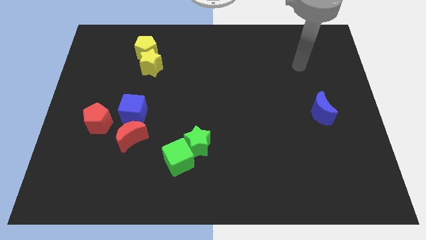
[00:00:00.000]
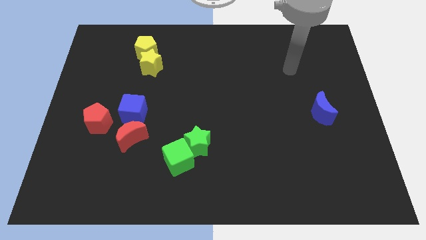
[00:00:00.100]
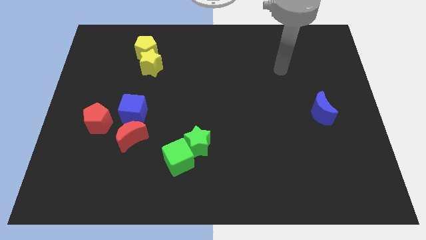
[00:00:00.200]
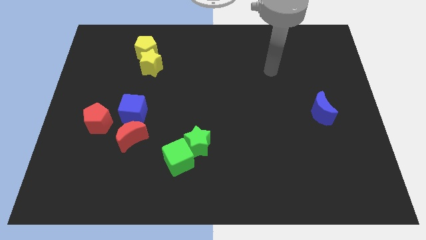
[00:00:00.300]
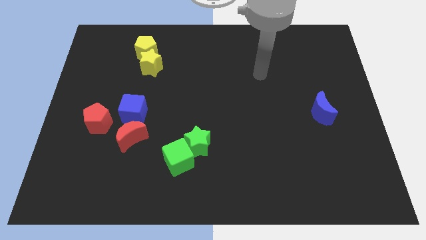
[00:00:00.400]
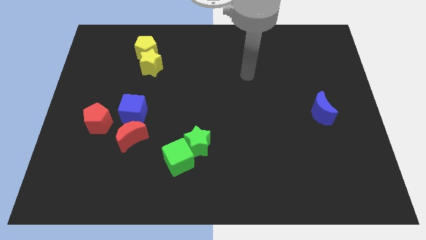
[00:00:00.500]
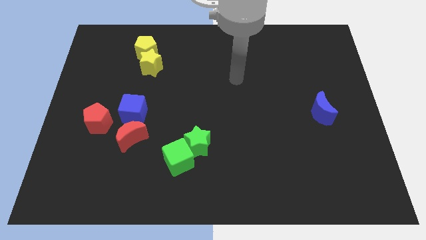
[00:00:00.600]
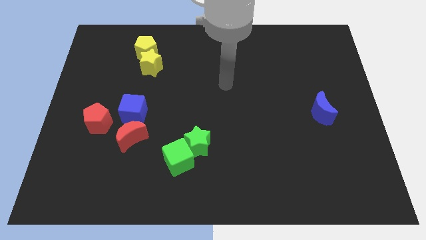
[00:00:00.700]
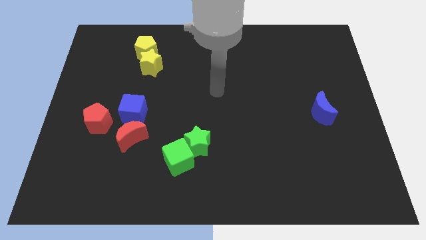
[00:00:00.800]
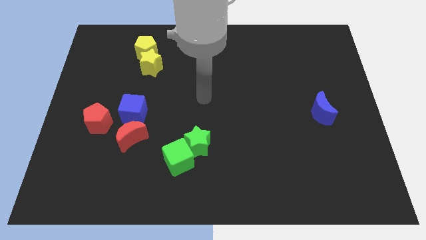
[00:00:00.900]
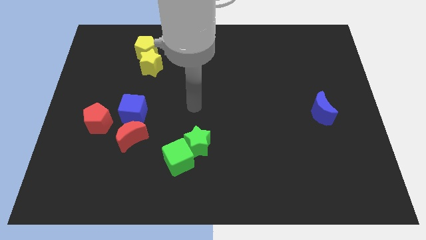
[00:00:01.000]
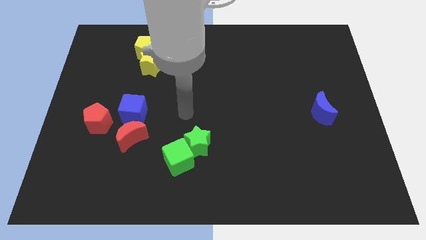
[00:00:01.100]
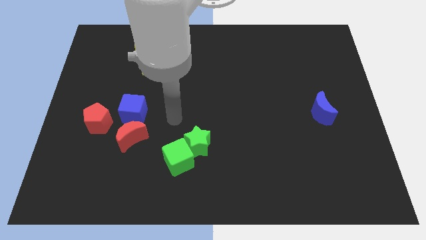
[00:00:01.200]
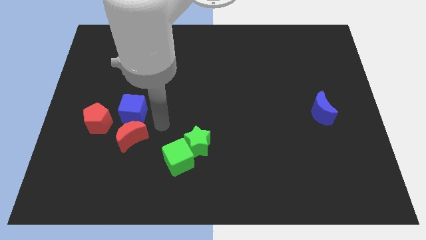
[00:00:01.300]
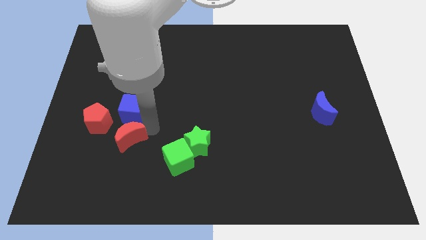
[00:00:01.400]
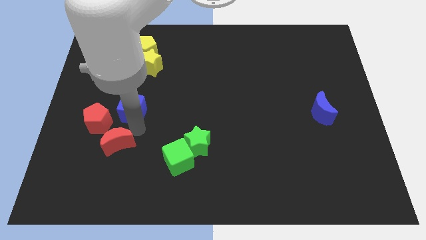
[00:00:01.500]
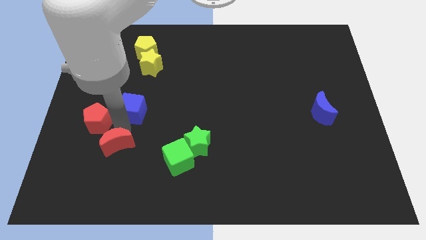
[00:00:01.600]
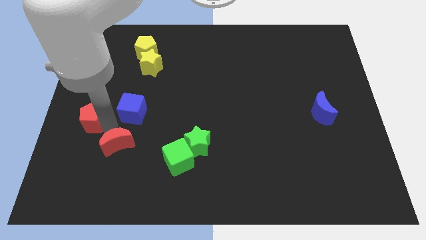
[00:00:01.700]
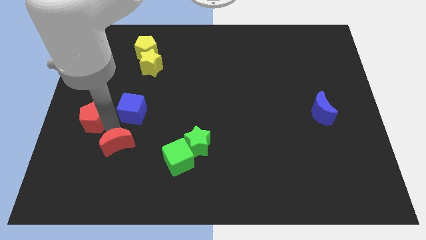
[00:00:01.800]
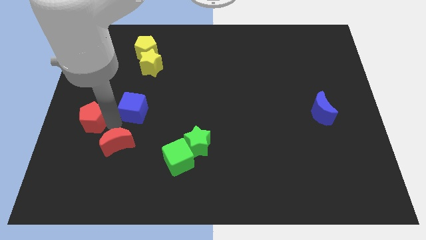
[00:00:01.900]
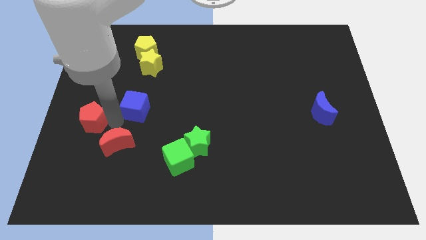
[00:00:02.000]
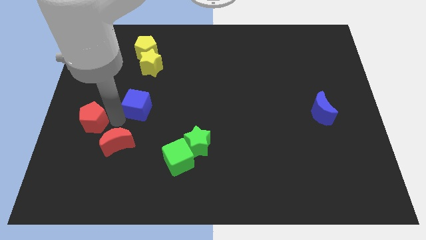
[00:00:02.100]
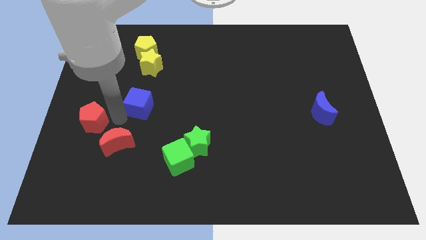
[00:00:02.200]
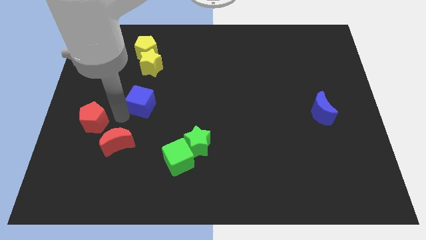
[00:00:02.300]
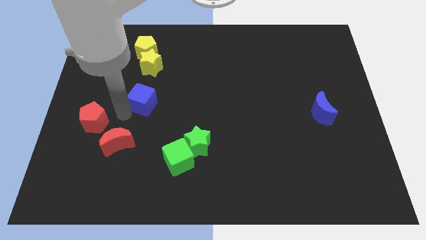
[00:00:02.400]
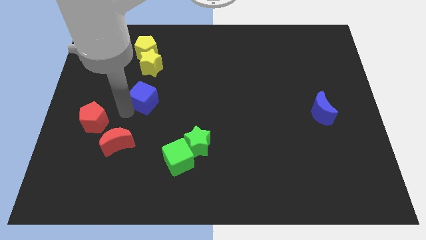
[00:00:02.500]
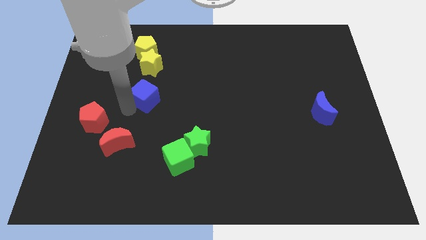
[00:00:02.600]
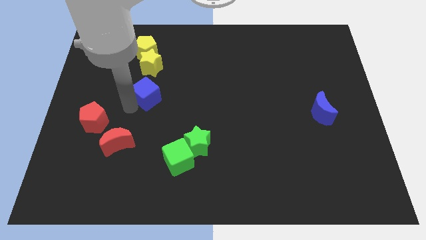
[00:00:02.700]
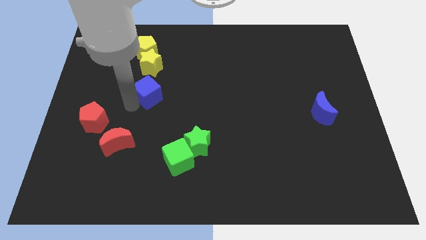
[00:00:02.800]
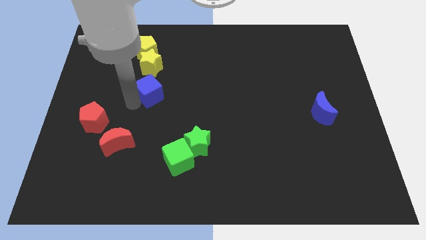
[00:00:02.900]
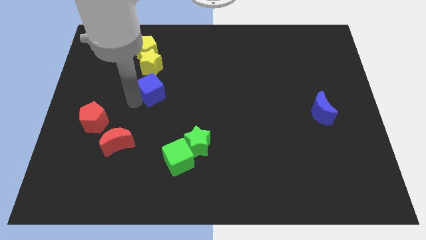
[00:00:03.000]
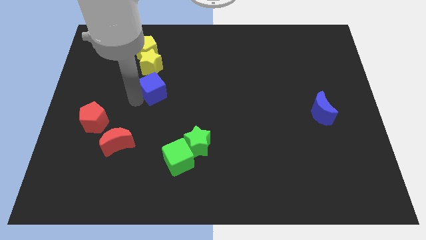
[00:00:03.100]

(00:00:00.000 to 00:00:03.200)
move the blue cube slightly upwards and then right

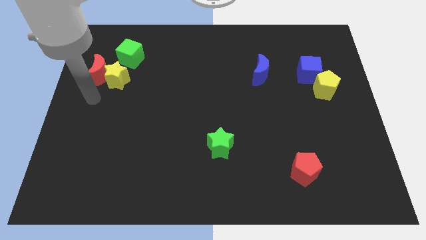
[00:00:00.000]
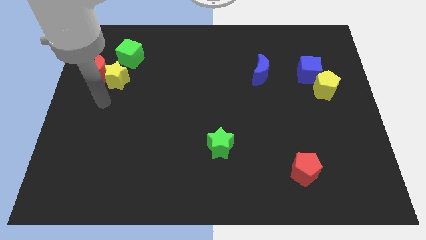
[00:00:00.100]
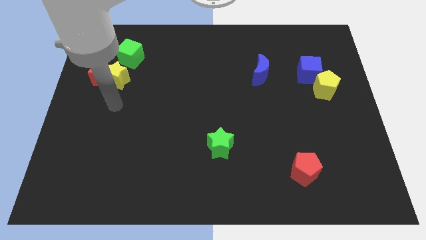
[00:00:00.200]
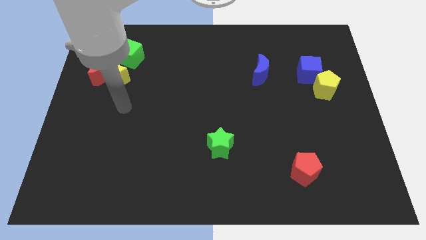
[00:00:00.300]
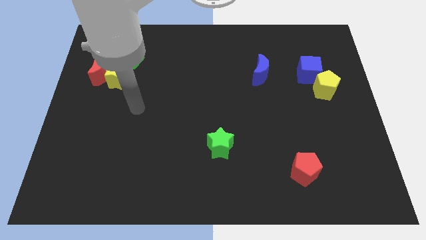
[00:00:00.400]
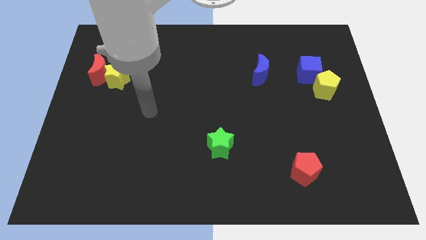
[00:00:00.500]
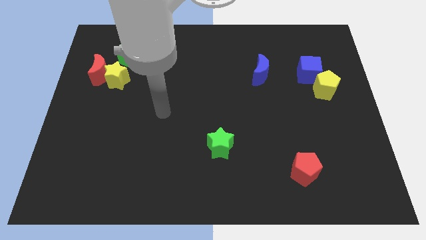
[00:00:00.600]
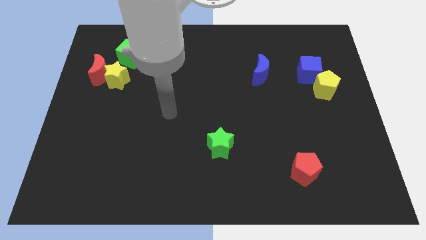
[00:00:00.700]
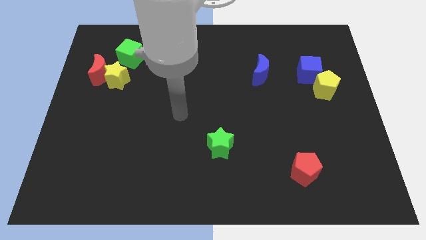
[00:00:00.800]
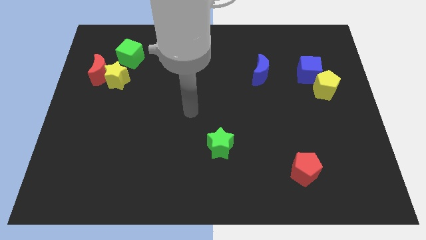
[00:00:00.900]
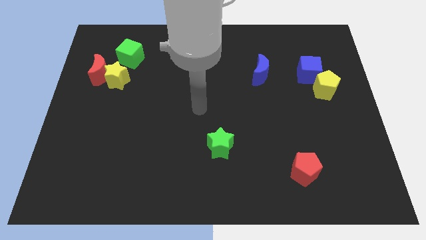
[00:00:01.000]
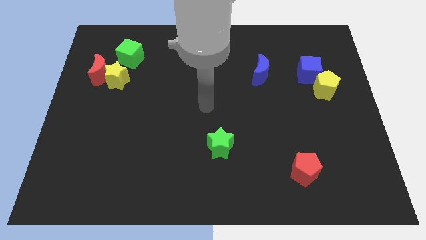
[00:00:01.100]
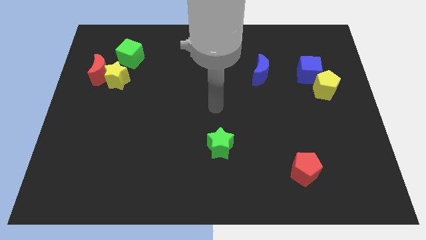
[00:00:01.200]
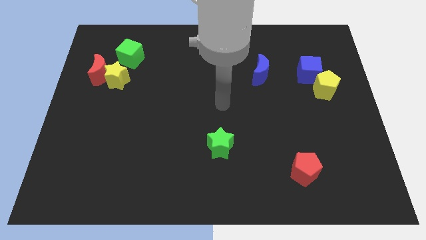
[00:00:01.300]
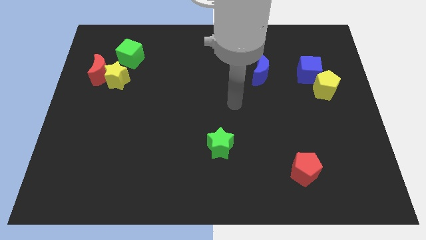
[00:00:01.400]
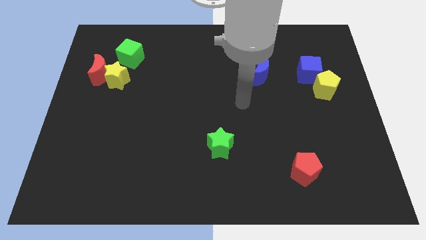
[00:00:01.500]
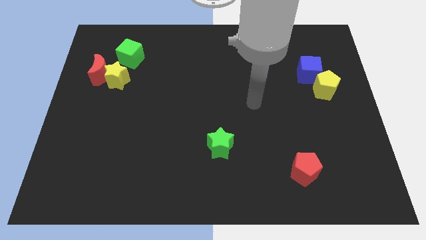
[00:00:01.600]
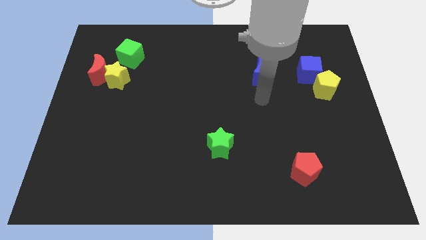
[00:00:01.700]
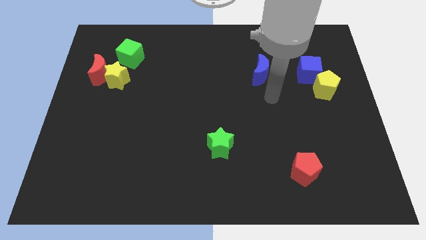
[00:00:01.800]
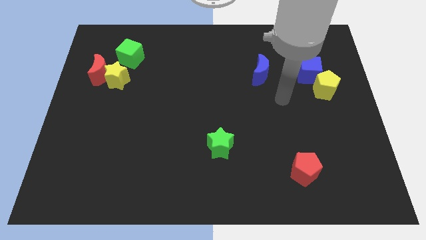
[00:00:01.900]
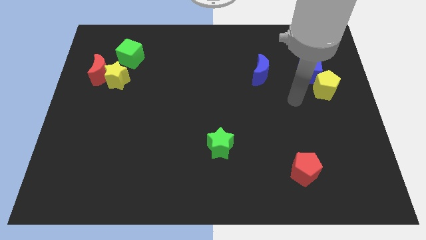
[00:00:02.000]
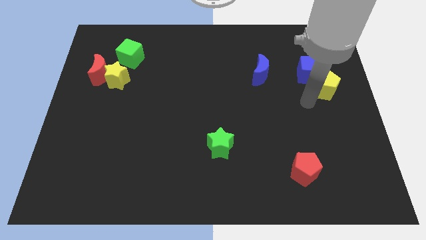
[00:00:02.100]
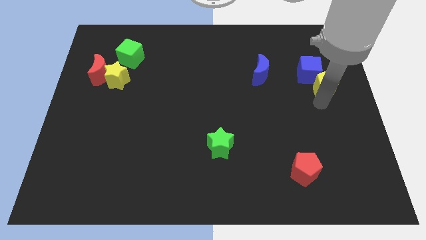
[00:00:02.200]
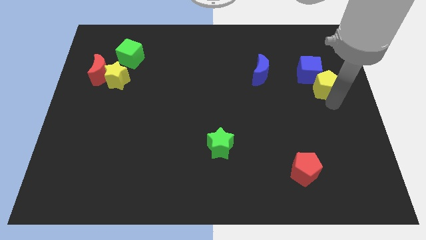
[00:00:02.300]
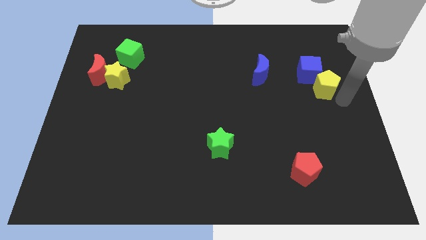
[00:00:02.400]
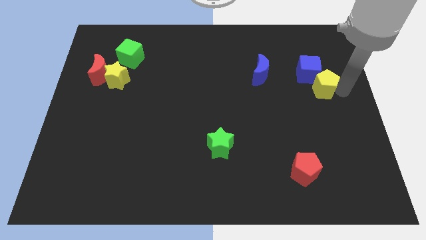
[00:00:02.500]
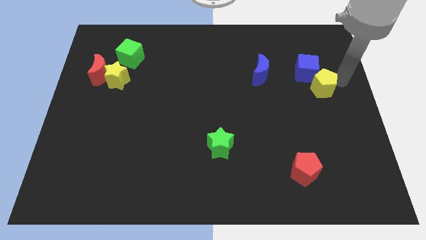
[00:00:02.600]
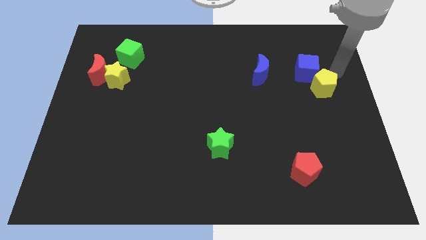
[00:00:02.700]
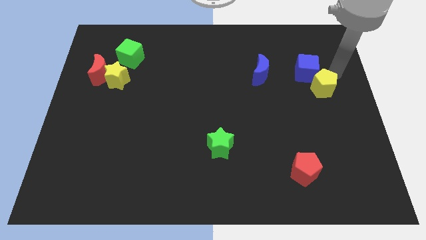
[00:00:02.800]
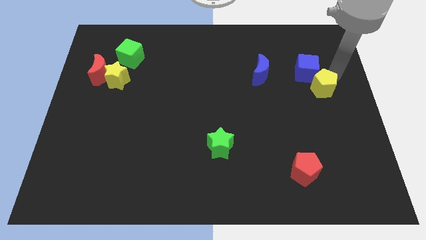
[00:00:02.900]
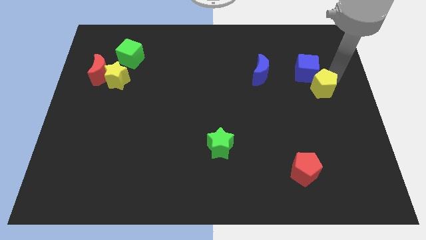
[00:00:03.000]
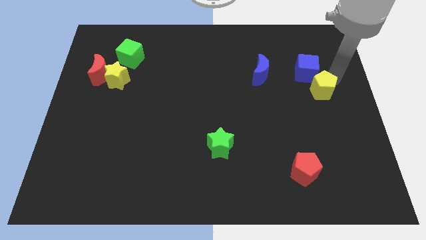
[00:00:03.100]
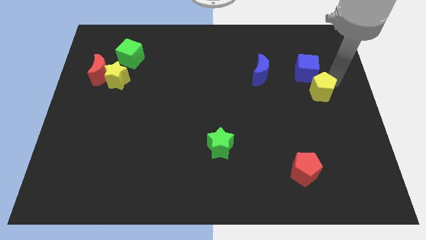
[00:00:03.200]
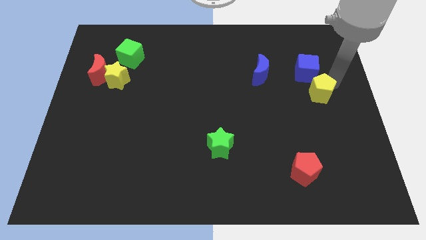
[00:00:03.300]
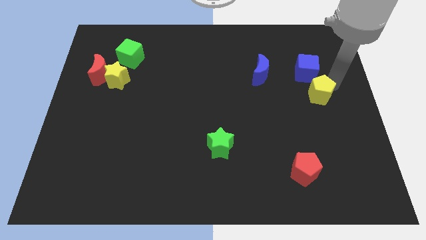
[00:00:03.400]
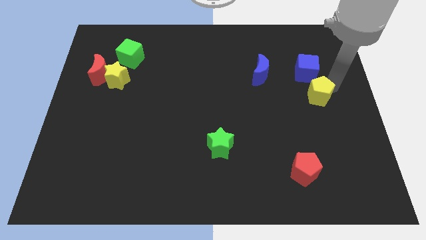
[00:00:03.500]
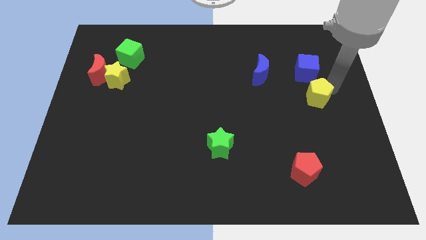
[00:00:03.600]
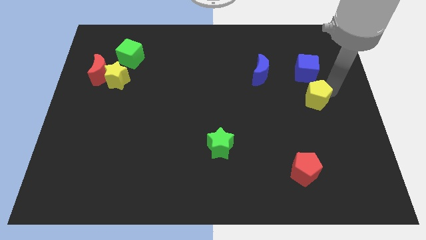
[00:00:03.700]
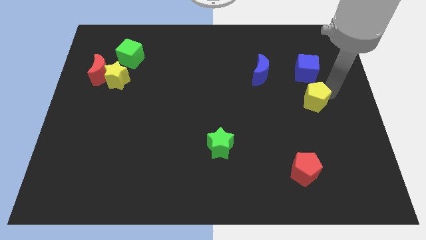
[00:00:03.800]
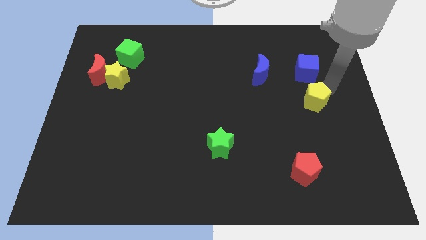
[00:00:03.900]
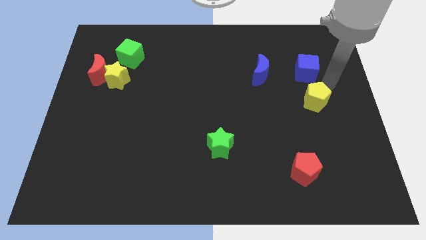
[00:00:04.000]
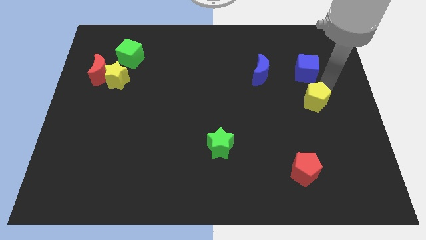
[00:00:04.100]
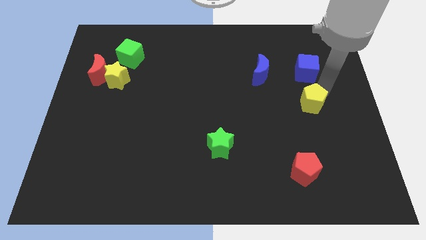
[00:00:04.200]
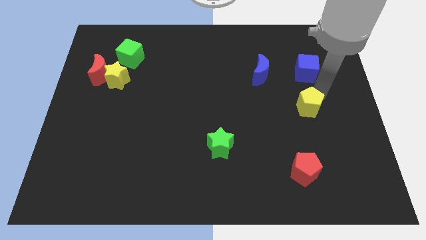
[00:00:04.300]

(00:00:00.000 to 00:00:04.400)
push the yellow pentagon a bit downwards and then left
